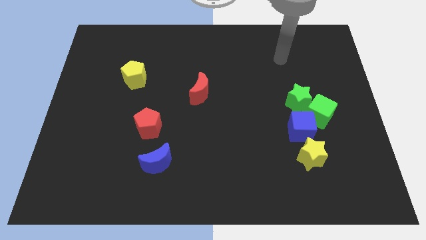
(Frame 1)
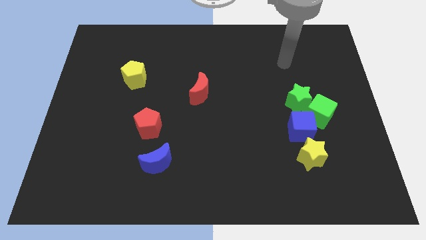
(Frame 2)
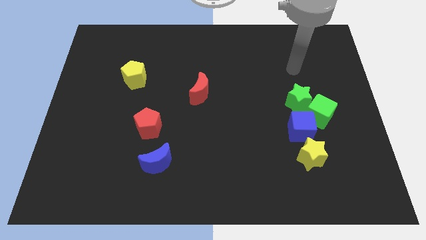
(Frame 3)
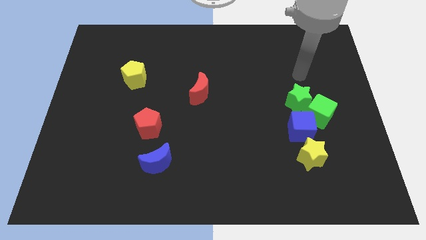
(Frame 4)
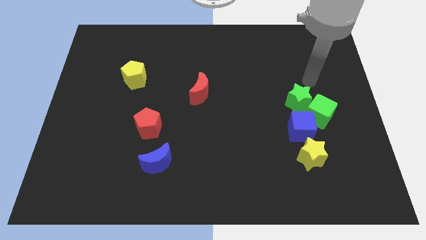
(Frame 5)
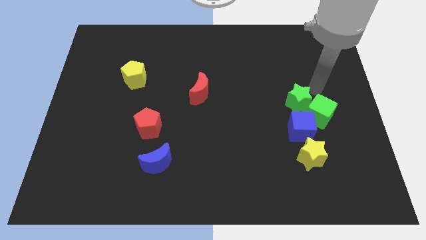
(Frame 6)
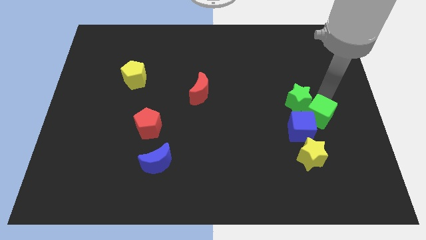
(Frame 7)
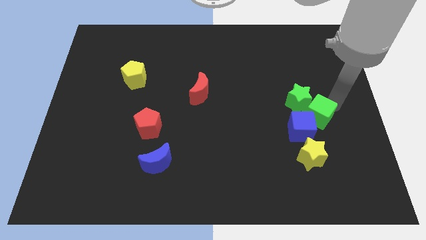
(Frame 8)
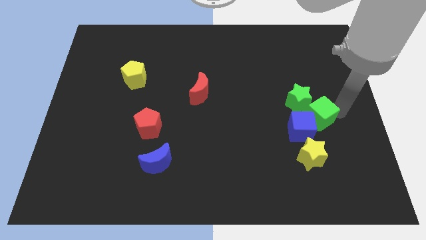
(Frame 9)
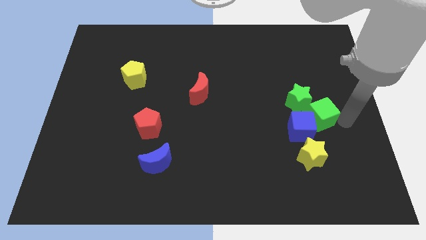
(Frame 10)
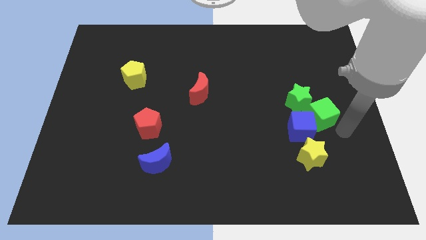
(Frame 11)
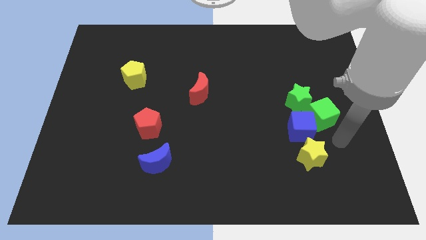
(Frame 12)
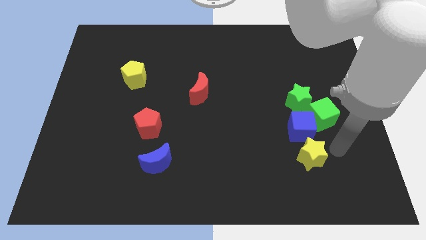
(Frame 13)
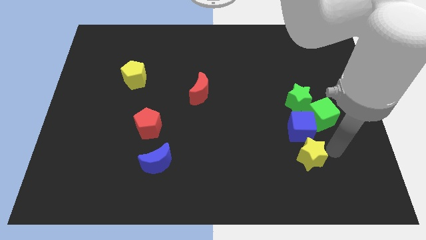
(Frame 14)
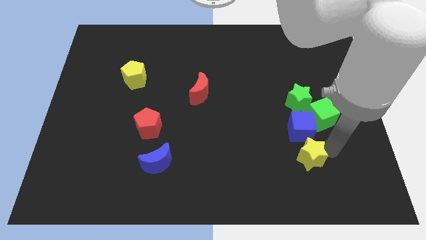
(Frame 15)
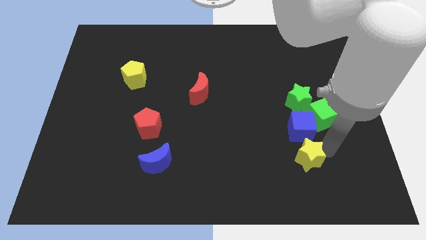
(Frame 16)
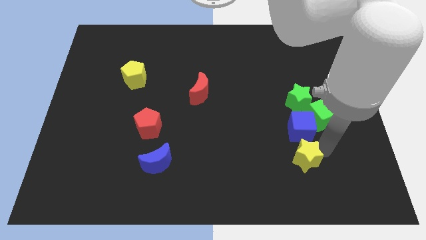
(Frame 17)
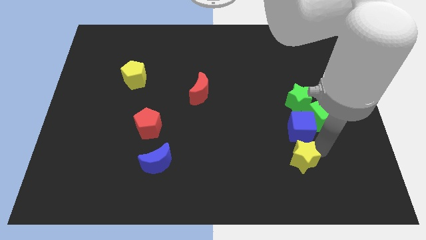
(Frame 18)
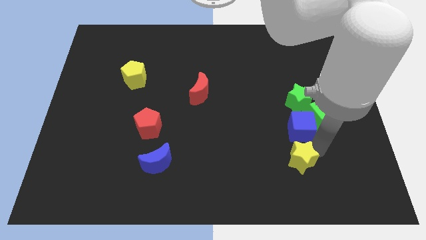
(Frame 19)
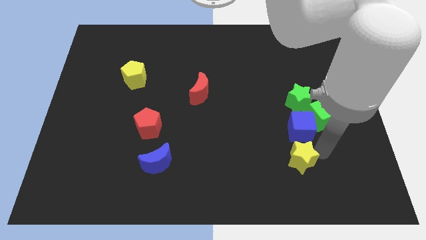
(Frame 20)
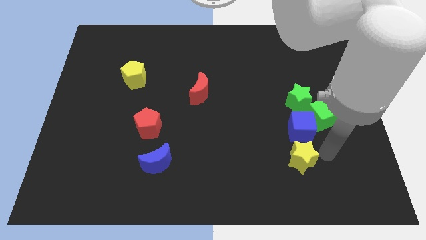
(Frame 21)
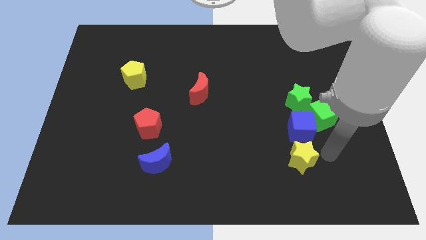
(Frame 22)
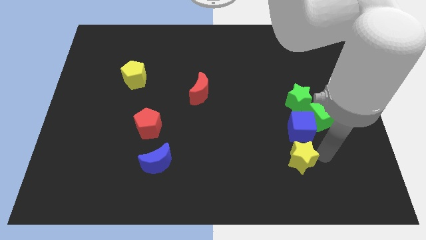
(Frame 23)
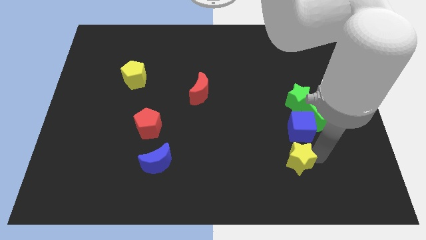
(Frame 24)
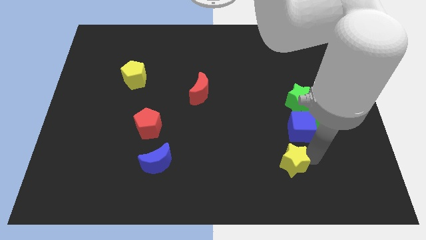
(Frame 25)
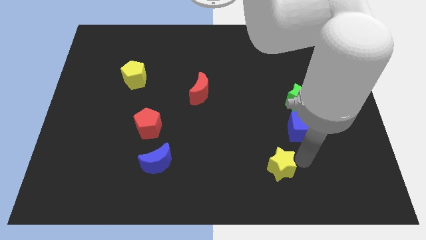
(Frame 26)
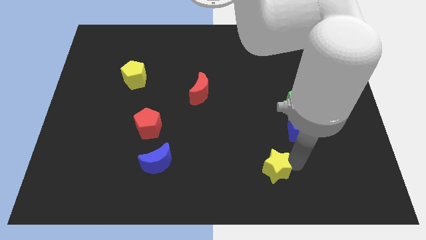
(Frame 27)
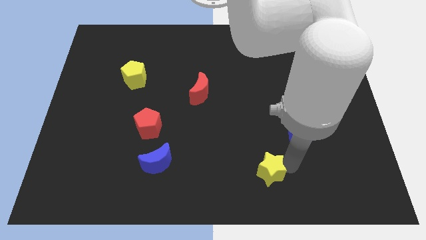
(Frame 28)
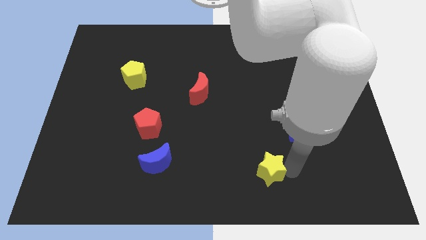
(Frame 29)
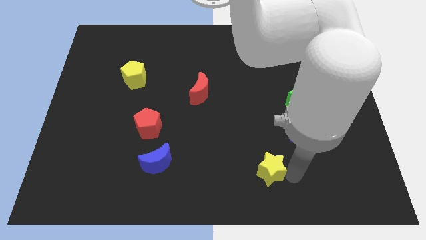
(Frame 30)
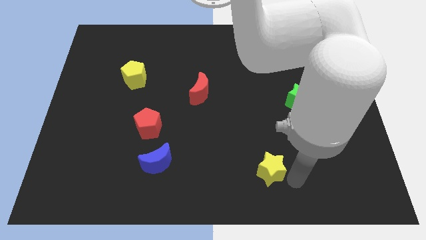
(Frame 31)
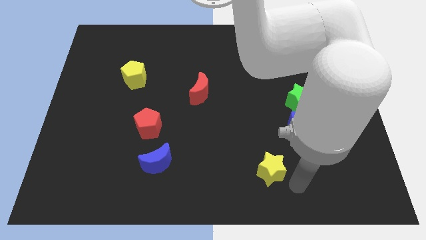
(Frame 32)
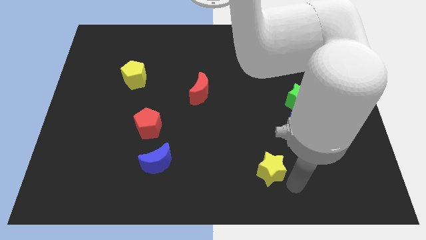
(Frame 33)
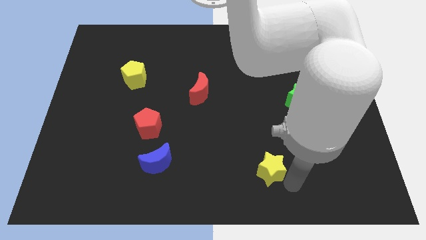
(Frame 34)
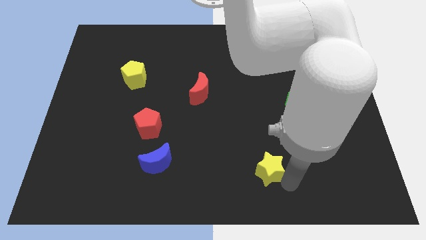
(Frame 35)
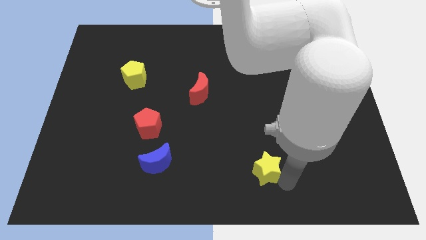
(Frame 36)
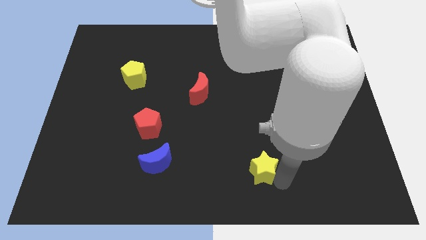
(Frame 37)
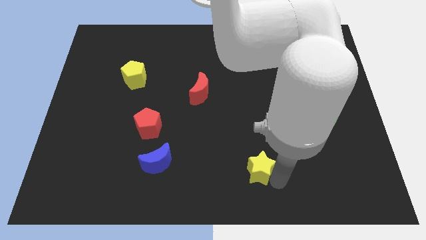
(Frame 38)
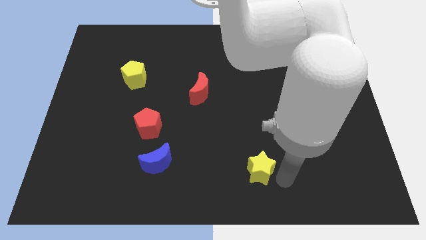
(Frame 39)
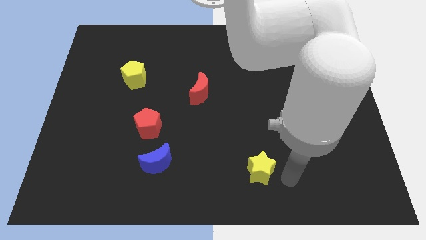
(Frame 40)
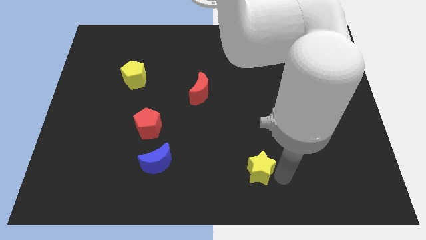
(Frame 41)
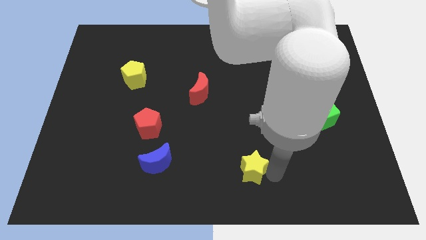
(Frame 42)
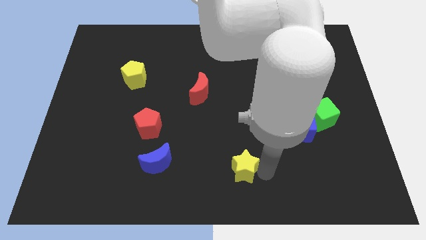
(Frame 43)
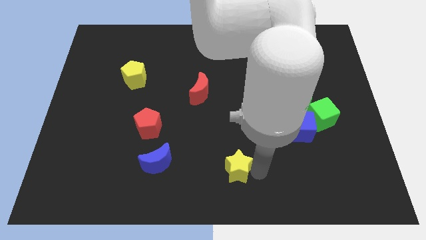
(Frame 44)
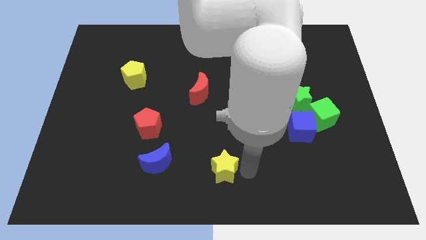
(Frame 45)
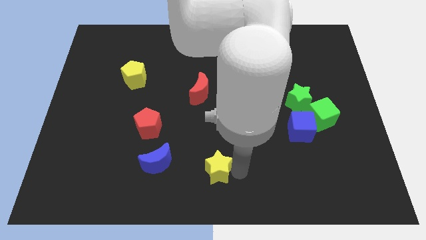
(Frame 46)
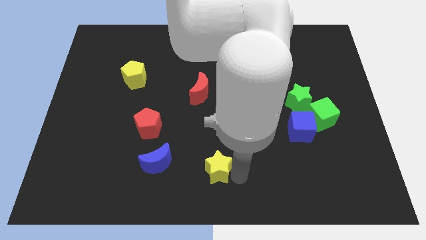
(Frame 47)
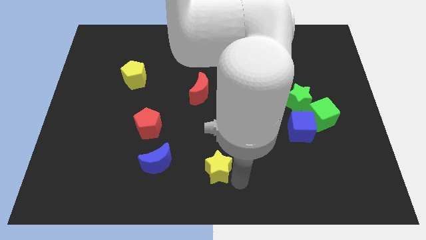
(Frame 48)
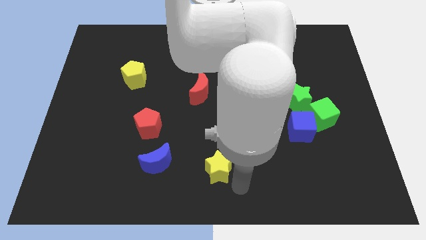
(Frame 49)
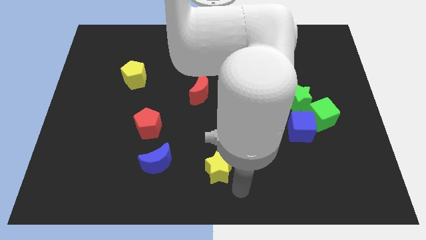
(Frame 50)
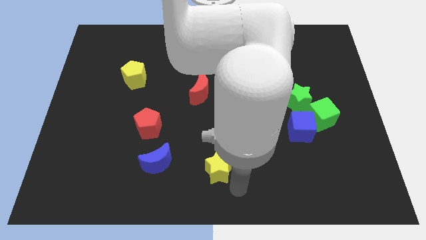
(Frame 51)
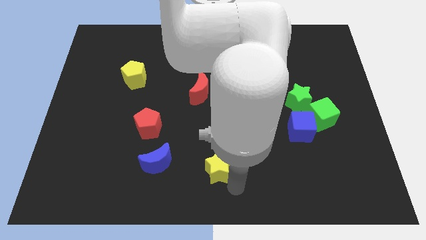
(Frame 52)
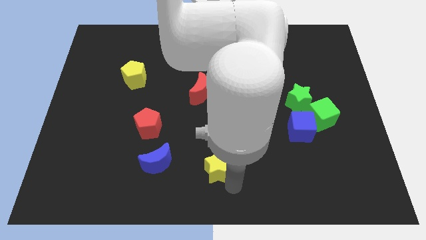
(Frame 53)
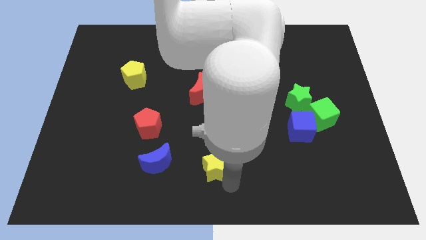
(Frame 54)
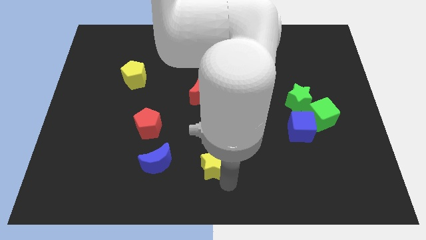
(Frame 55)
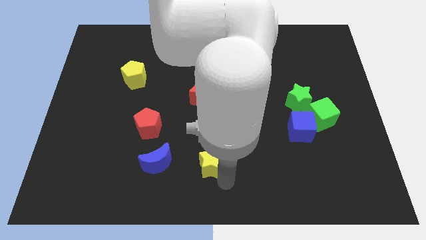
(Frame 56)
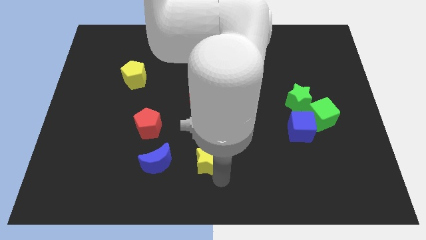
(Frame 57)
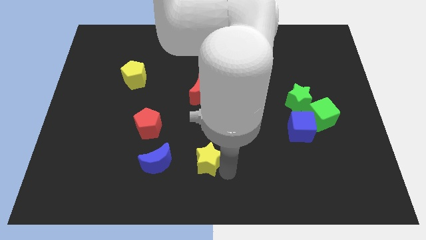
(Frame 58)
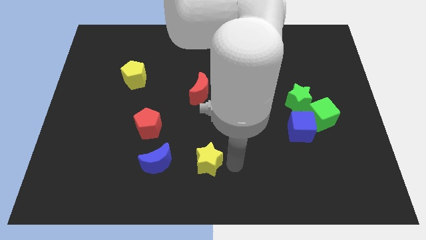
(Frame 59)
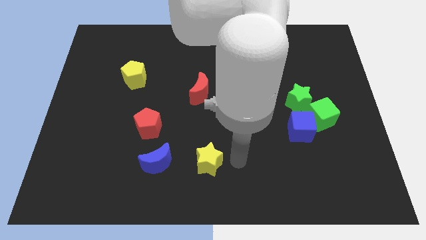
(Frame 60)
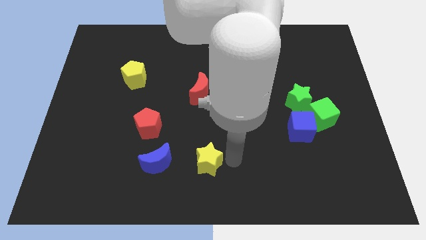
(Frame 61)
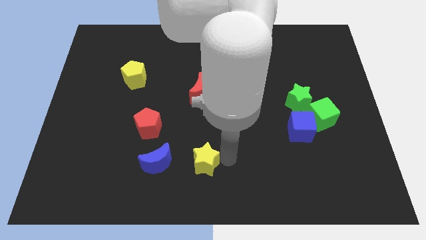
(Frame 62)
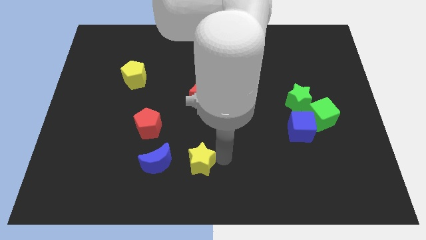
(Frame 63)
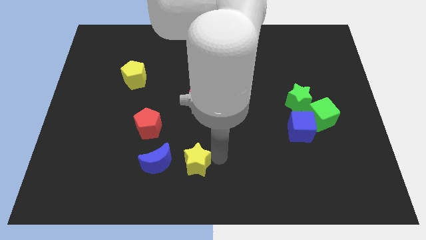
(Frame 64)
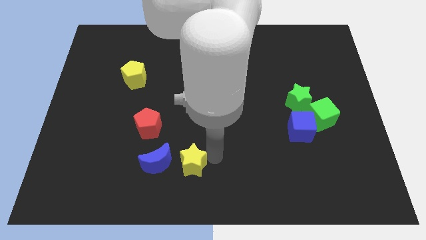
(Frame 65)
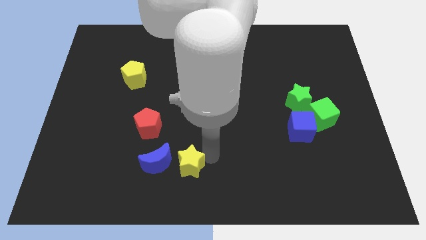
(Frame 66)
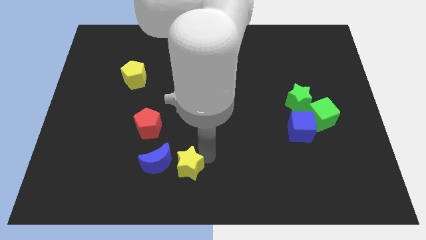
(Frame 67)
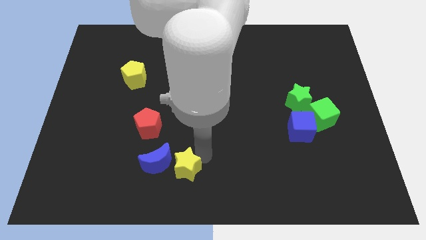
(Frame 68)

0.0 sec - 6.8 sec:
put the yellow star next to the blue moon

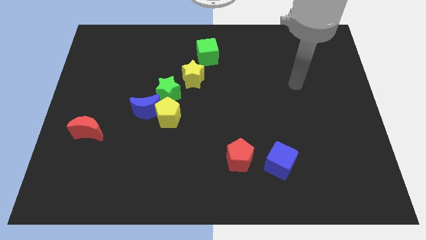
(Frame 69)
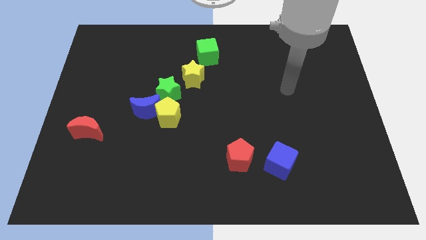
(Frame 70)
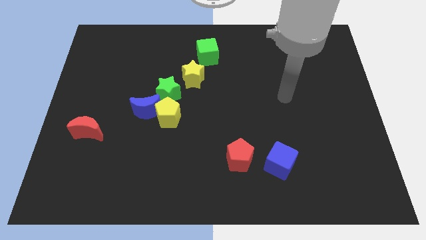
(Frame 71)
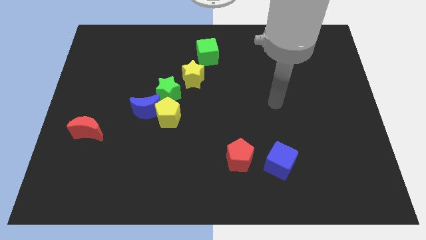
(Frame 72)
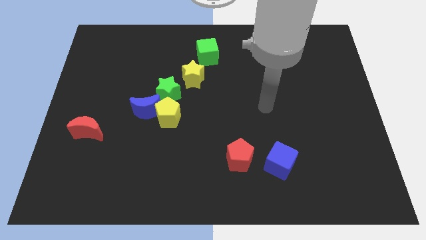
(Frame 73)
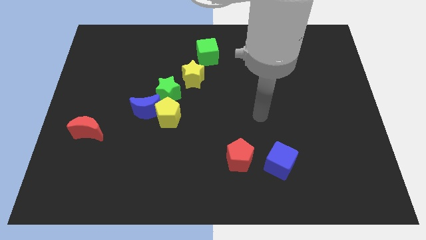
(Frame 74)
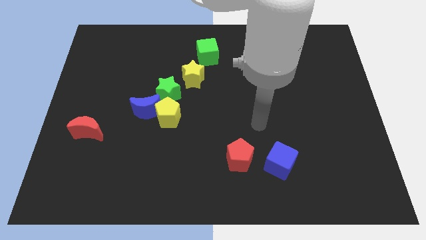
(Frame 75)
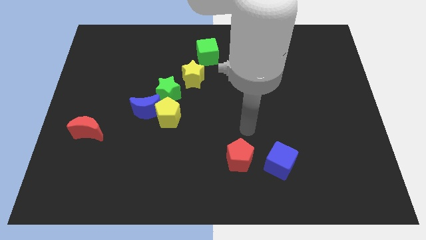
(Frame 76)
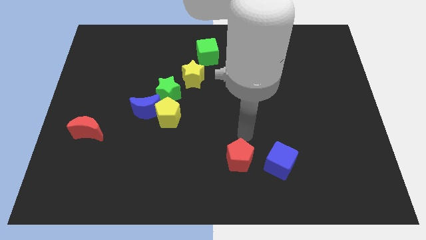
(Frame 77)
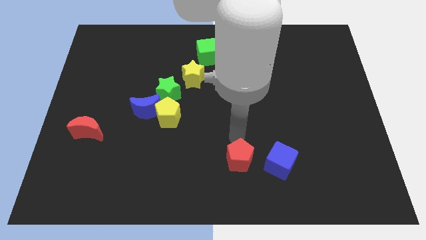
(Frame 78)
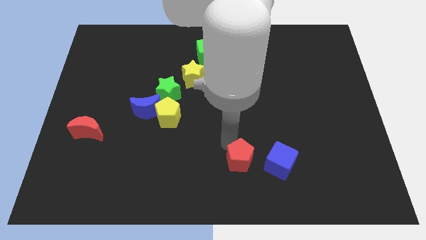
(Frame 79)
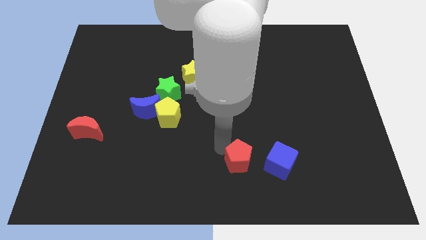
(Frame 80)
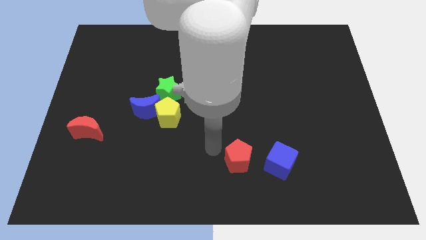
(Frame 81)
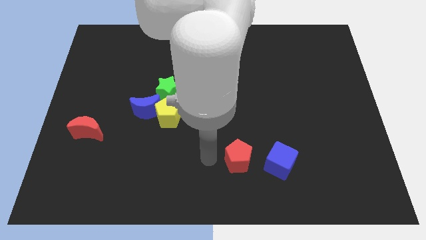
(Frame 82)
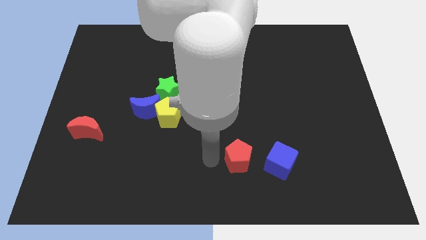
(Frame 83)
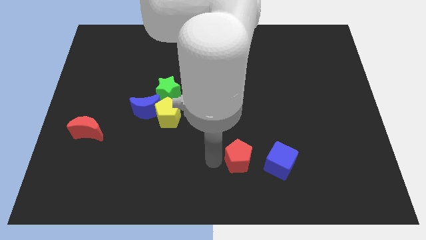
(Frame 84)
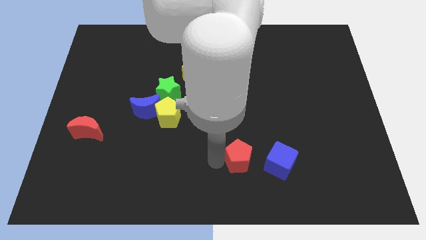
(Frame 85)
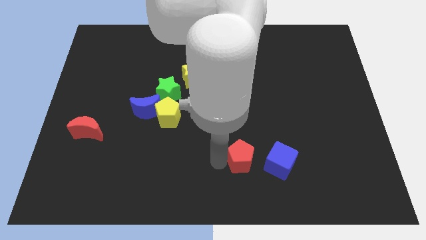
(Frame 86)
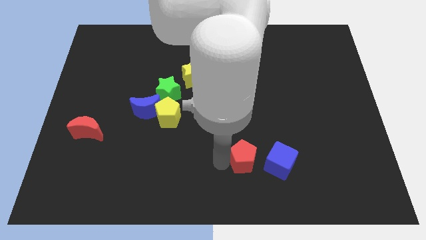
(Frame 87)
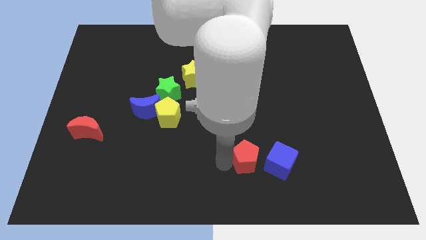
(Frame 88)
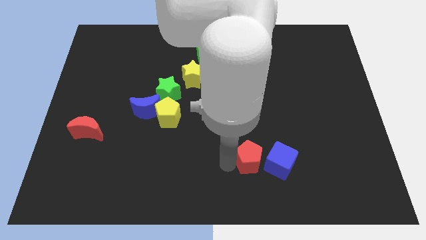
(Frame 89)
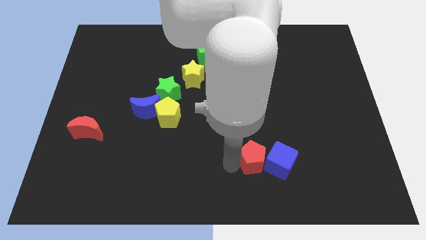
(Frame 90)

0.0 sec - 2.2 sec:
move the red pentagon next to the blue cube
